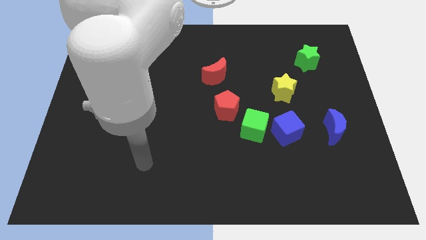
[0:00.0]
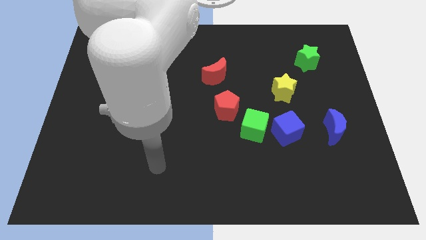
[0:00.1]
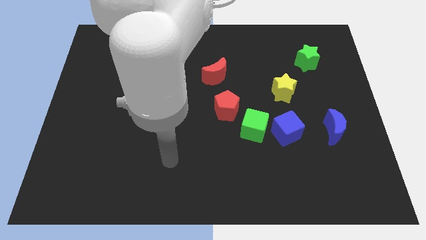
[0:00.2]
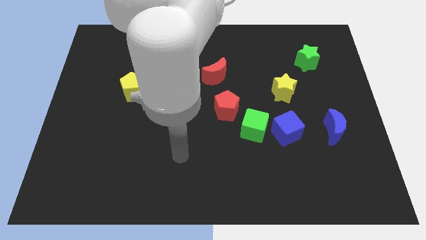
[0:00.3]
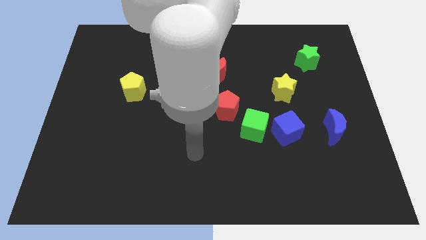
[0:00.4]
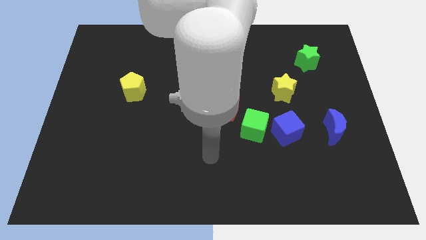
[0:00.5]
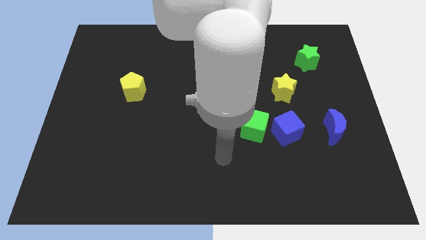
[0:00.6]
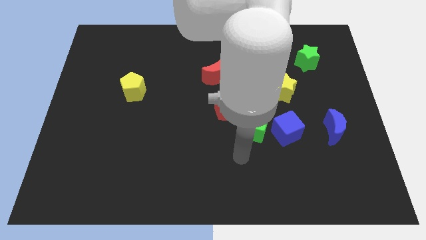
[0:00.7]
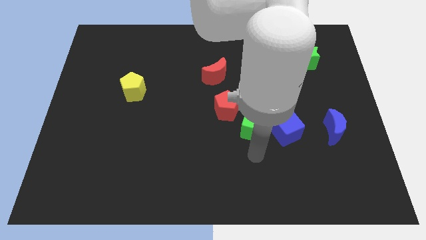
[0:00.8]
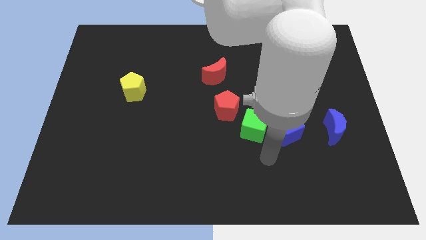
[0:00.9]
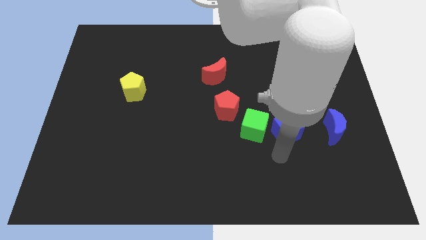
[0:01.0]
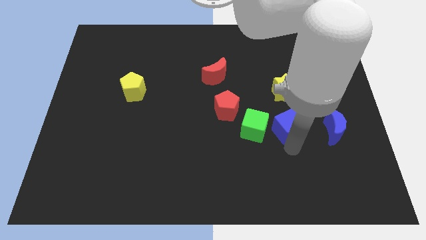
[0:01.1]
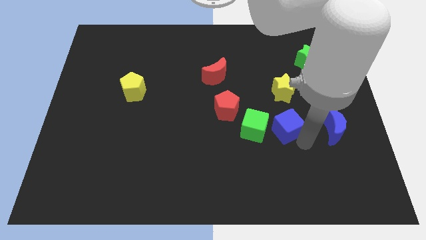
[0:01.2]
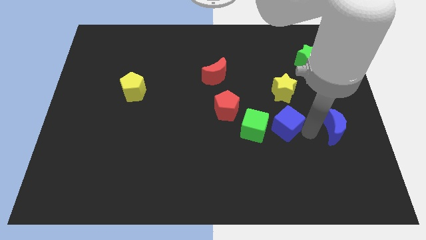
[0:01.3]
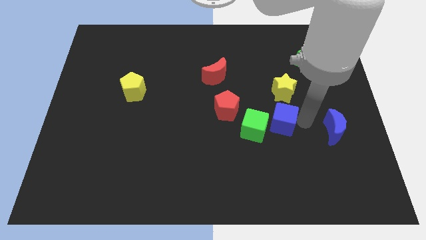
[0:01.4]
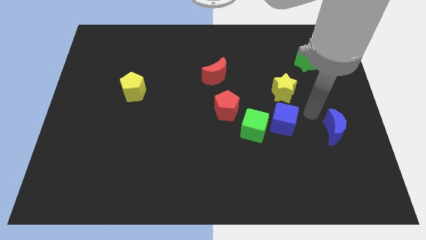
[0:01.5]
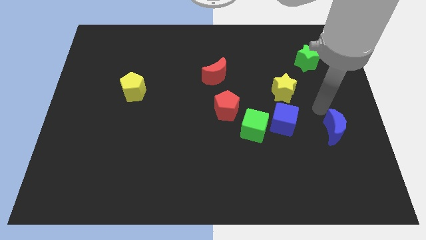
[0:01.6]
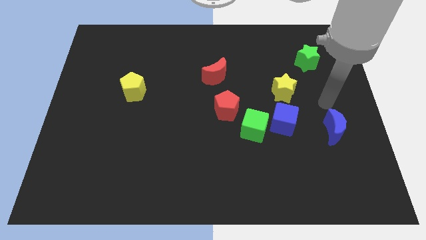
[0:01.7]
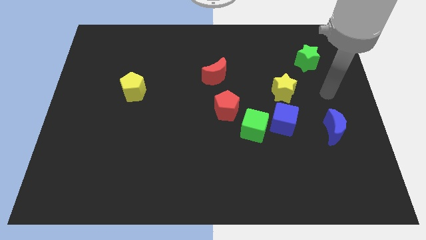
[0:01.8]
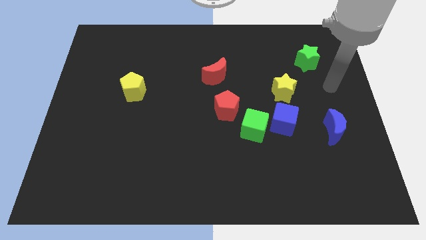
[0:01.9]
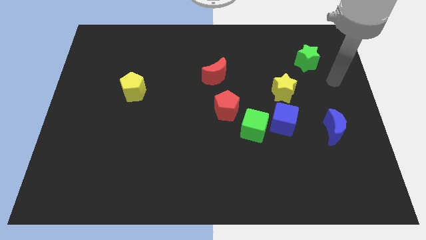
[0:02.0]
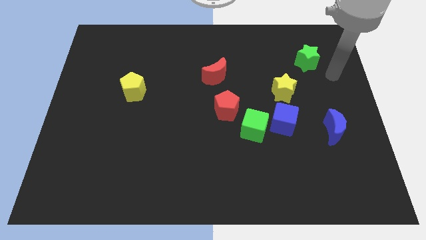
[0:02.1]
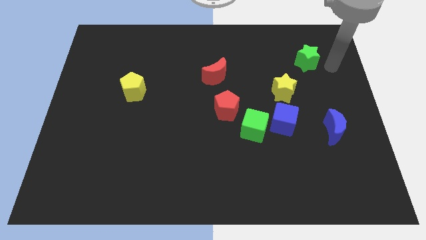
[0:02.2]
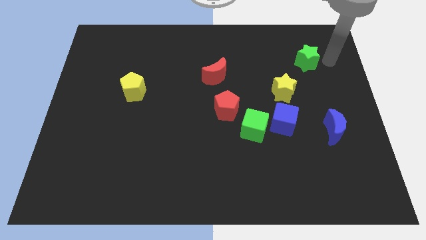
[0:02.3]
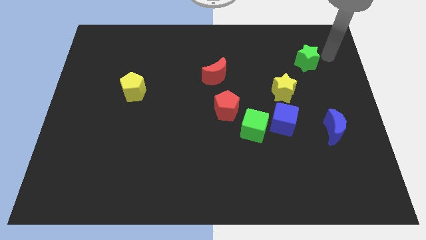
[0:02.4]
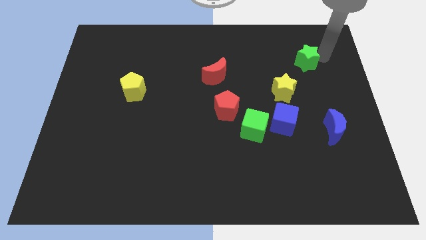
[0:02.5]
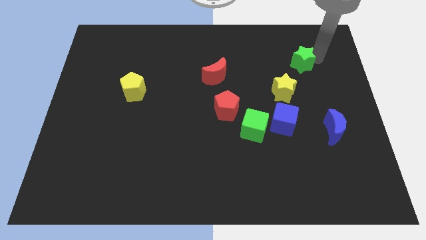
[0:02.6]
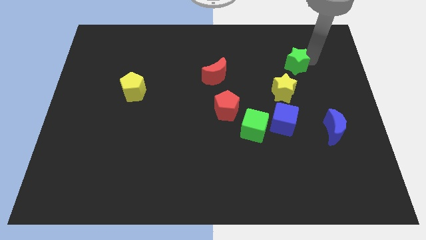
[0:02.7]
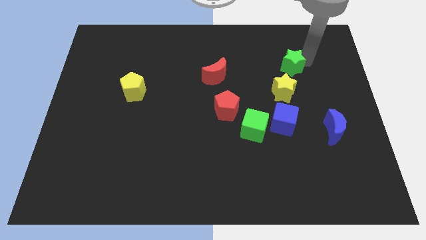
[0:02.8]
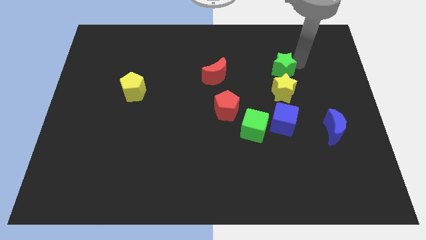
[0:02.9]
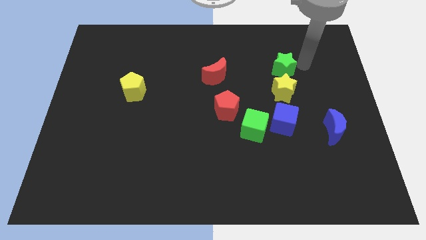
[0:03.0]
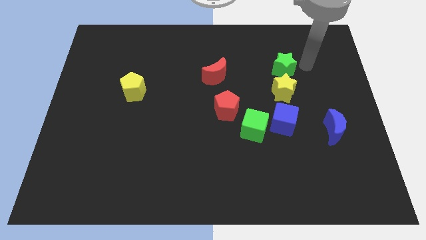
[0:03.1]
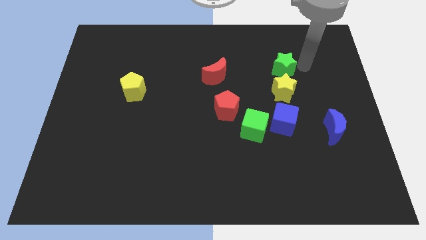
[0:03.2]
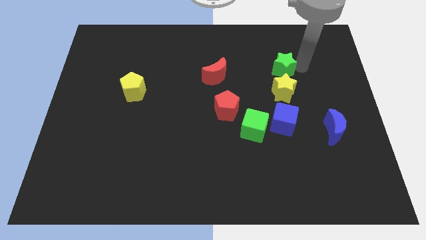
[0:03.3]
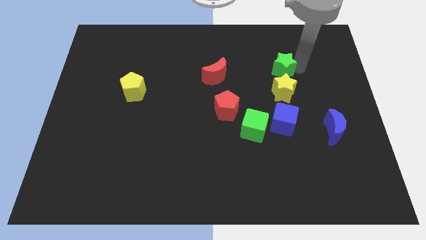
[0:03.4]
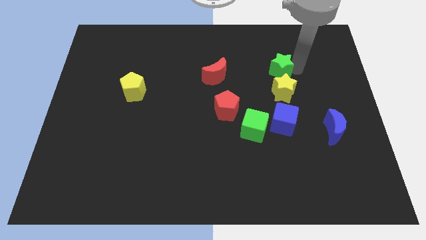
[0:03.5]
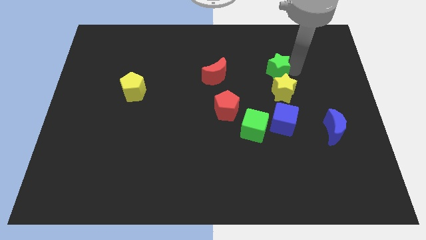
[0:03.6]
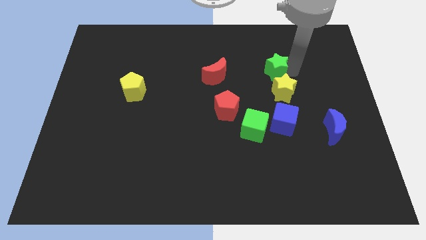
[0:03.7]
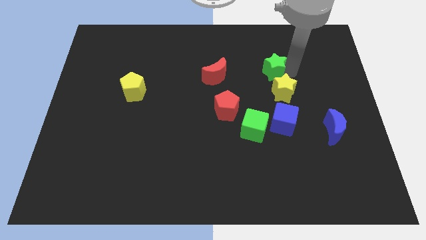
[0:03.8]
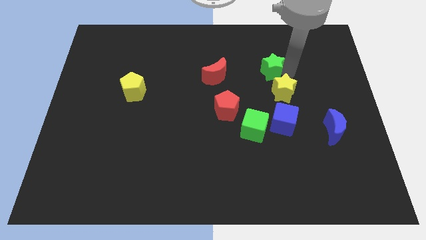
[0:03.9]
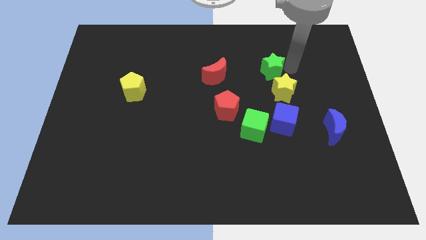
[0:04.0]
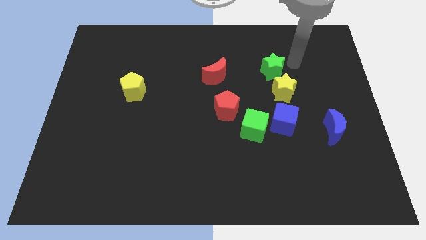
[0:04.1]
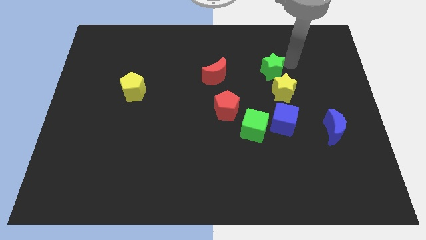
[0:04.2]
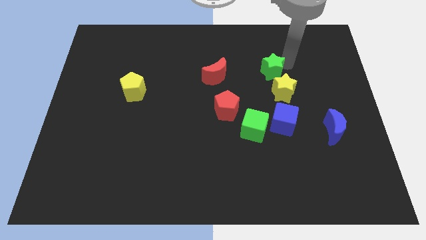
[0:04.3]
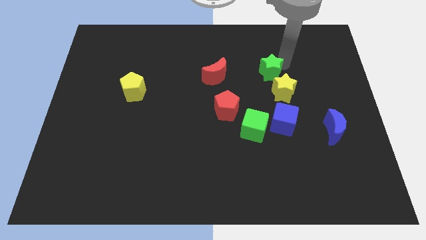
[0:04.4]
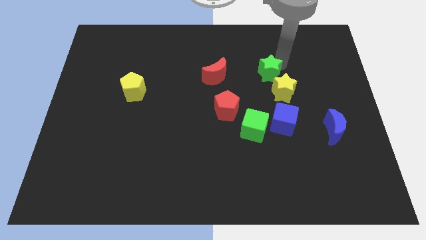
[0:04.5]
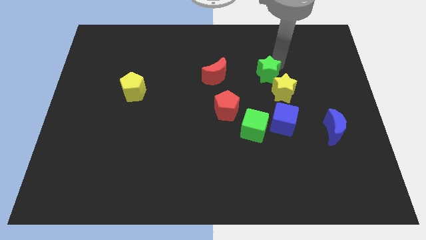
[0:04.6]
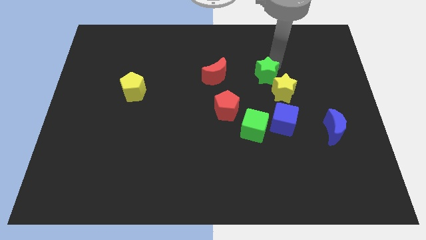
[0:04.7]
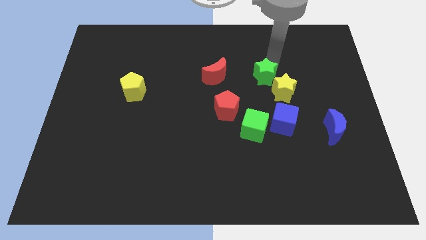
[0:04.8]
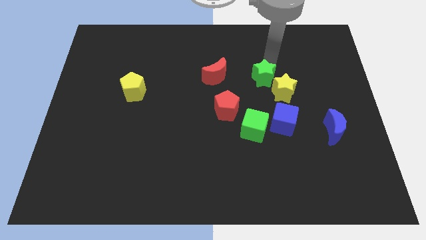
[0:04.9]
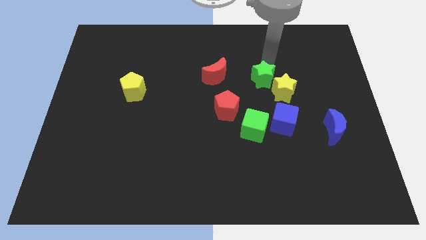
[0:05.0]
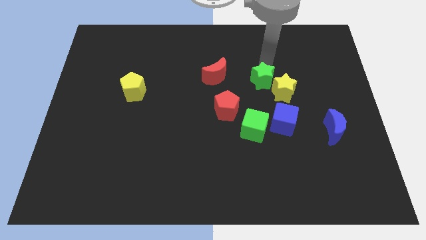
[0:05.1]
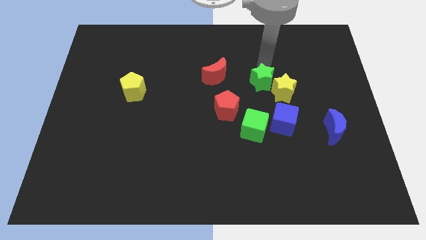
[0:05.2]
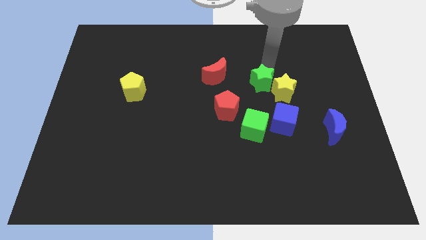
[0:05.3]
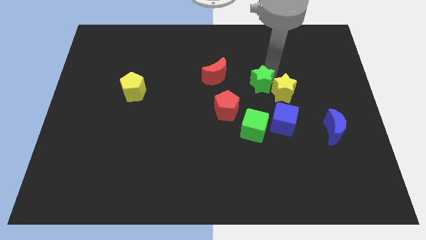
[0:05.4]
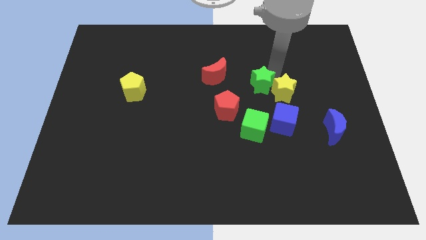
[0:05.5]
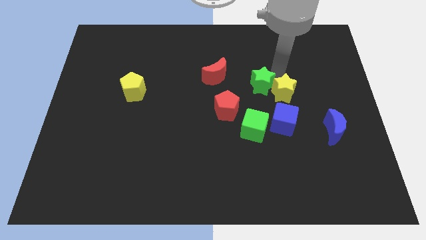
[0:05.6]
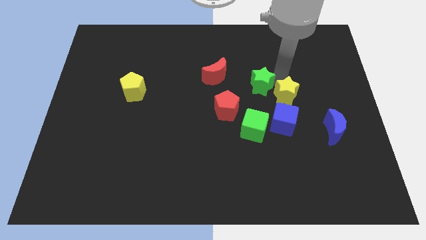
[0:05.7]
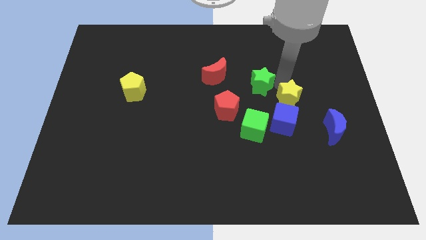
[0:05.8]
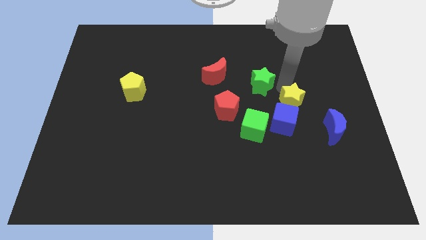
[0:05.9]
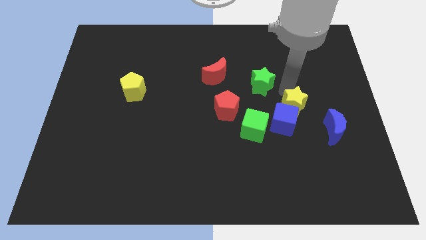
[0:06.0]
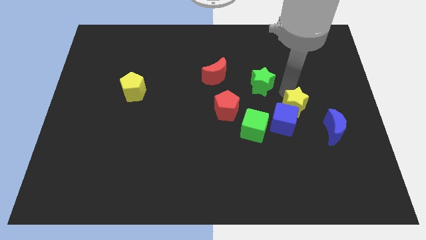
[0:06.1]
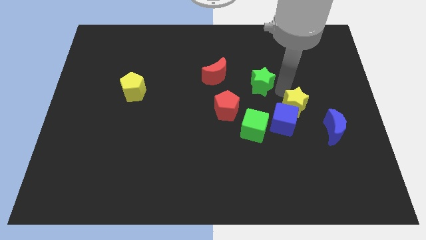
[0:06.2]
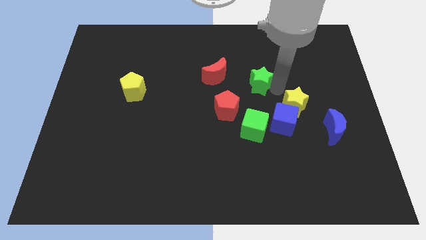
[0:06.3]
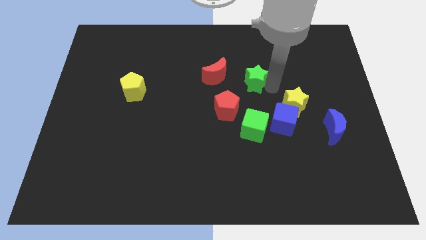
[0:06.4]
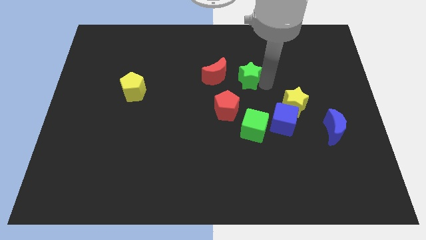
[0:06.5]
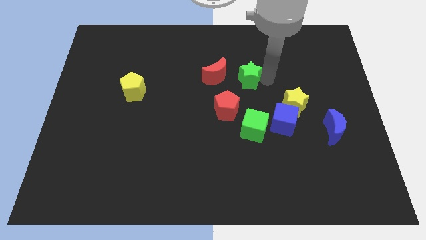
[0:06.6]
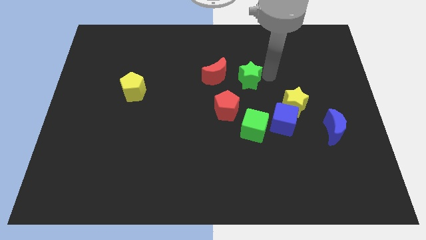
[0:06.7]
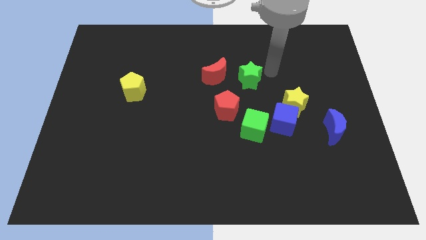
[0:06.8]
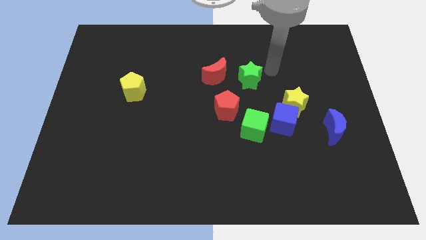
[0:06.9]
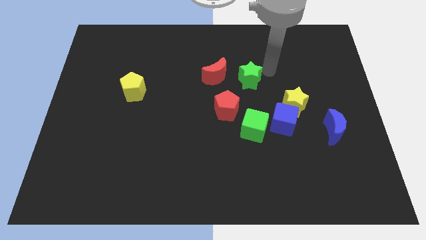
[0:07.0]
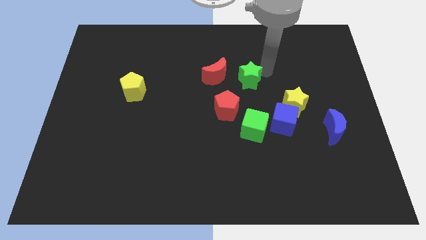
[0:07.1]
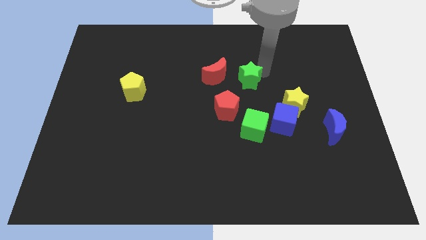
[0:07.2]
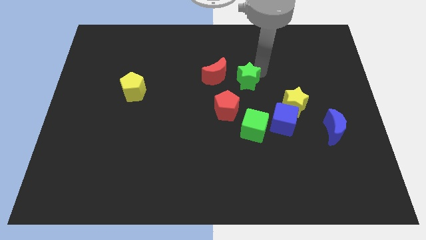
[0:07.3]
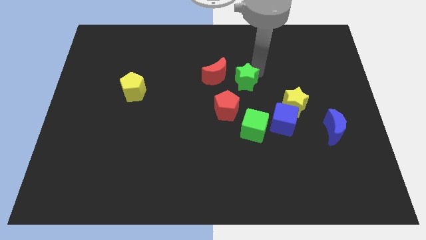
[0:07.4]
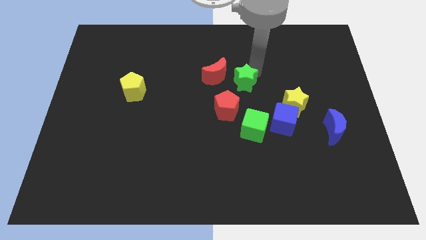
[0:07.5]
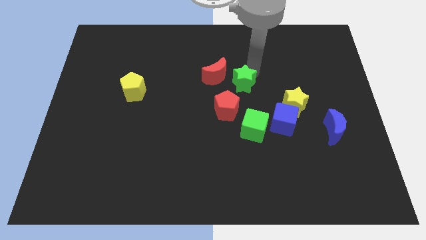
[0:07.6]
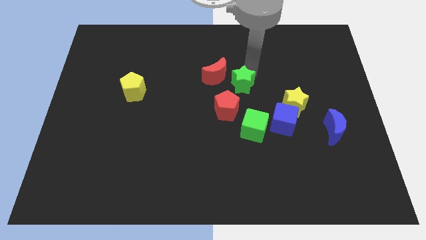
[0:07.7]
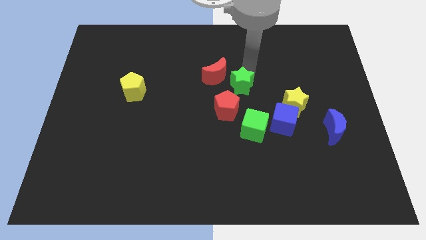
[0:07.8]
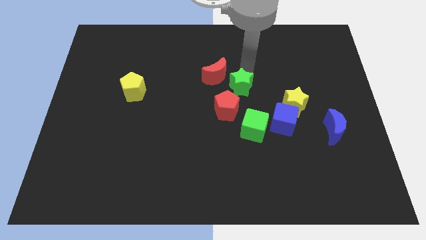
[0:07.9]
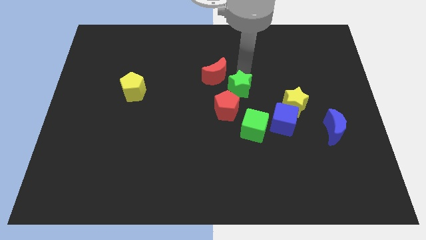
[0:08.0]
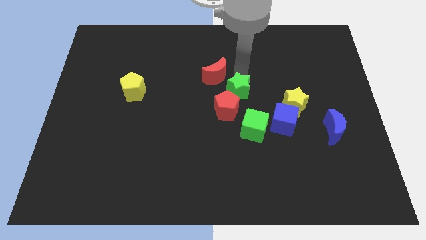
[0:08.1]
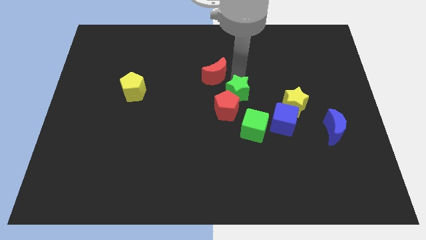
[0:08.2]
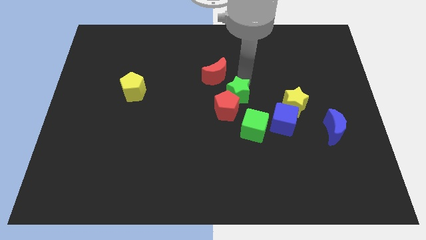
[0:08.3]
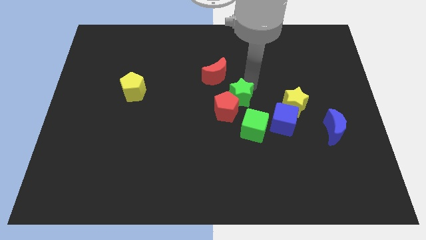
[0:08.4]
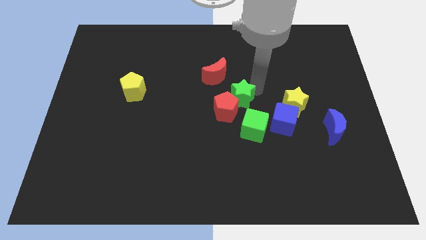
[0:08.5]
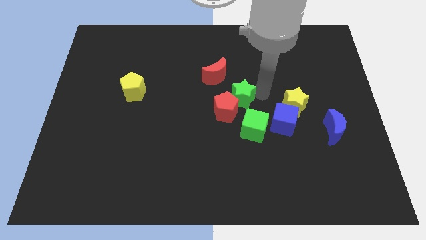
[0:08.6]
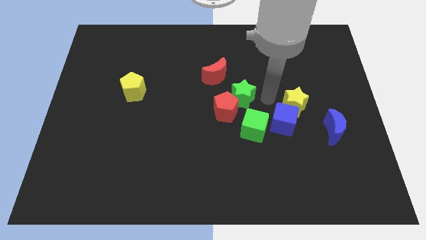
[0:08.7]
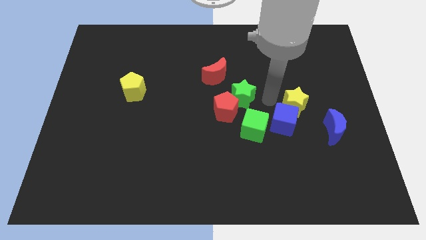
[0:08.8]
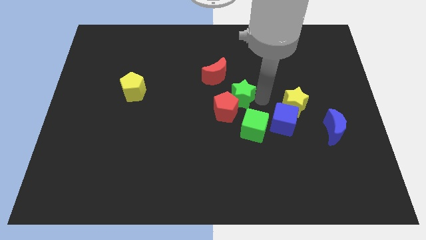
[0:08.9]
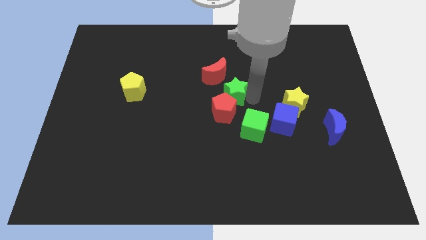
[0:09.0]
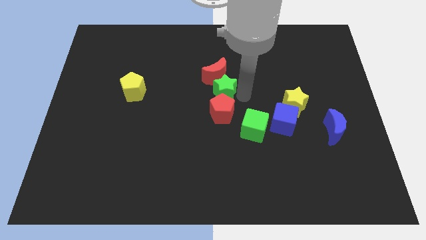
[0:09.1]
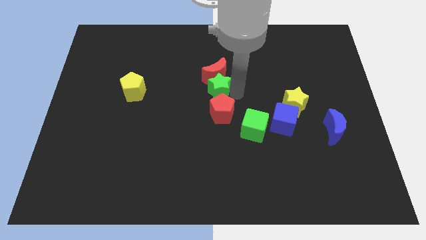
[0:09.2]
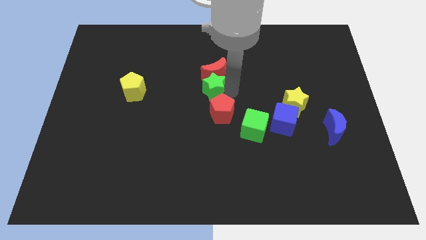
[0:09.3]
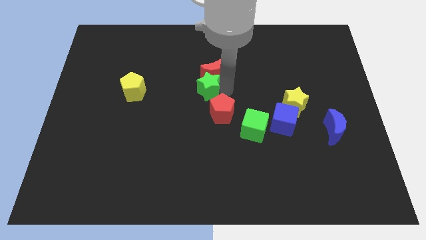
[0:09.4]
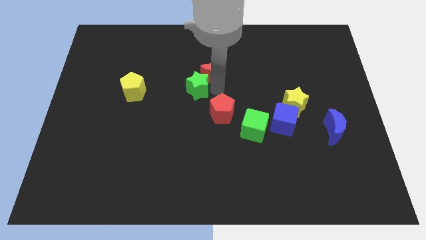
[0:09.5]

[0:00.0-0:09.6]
put the green star right of the yellow pentagon
